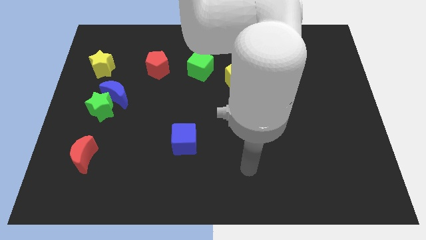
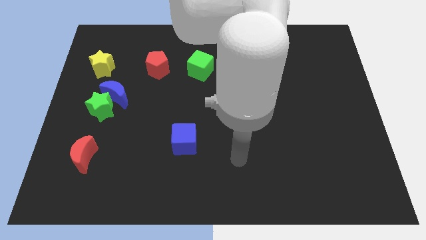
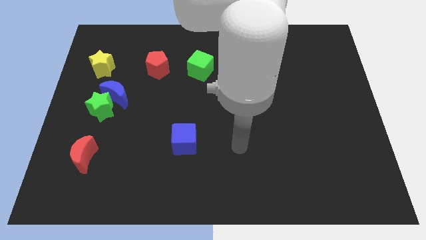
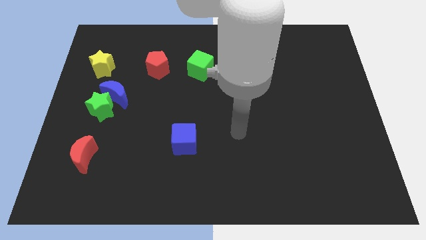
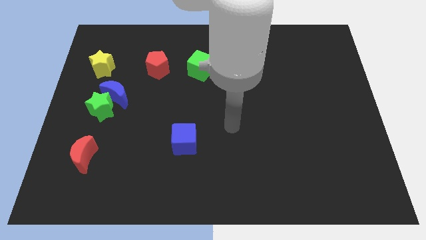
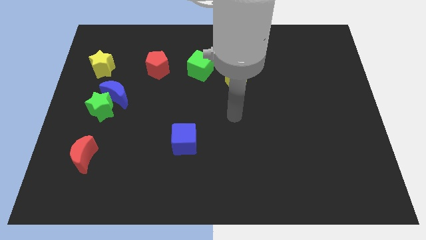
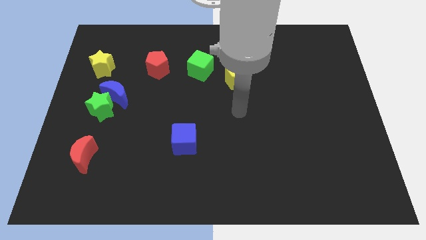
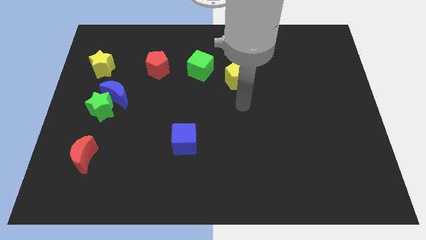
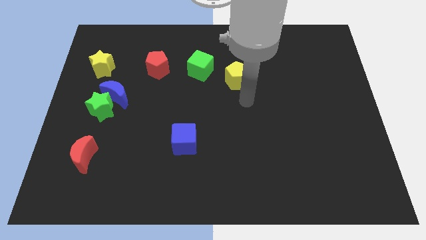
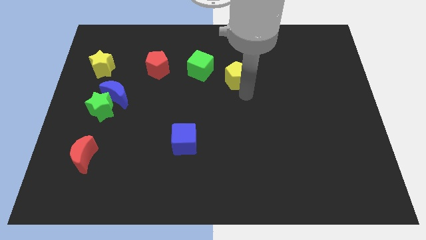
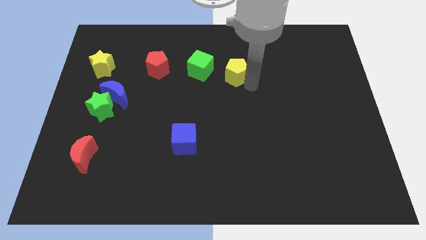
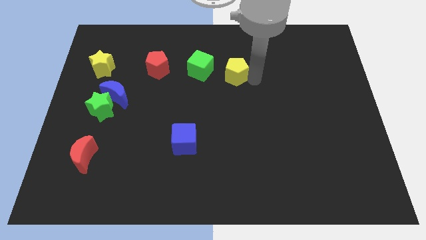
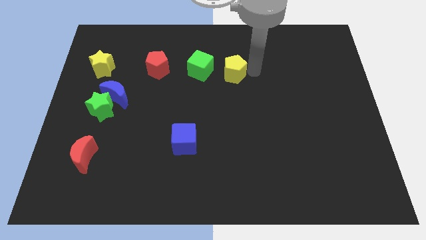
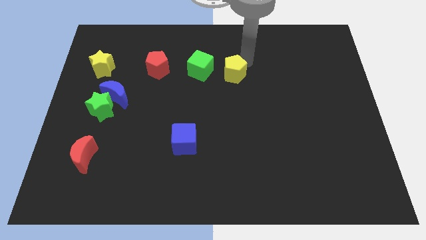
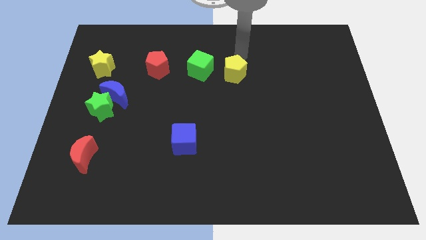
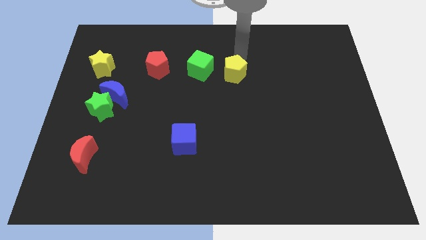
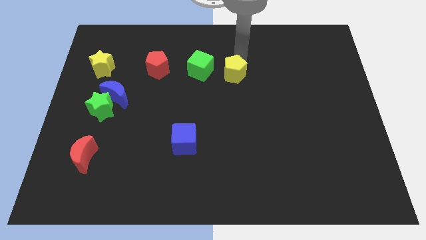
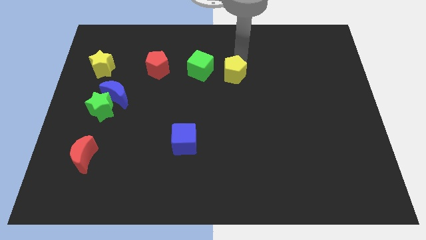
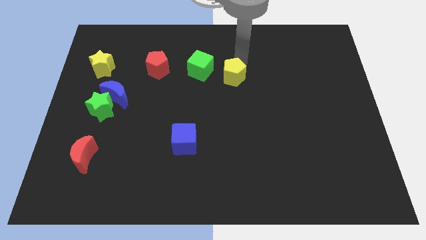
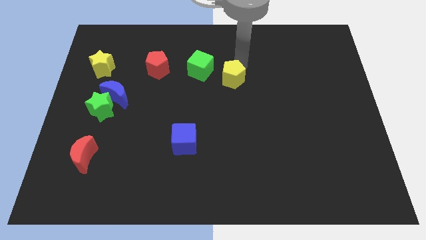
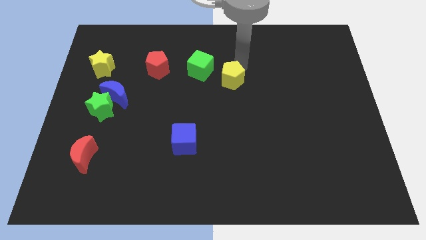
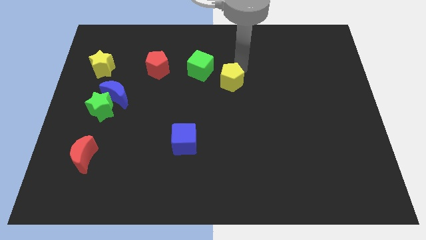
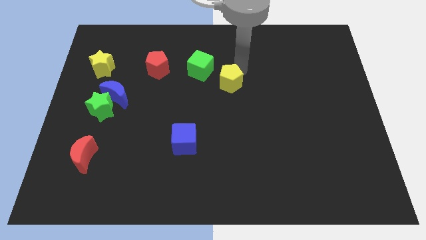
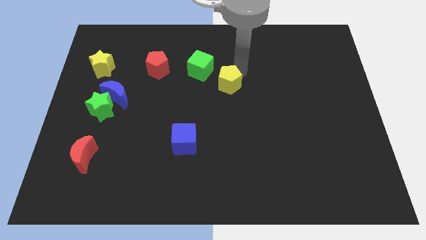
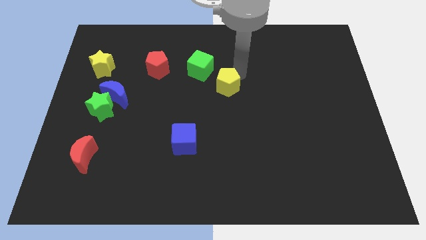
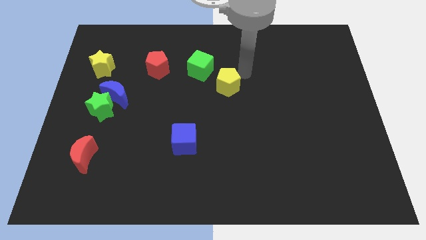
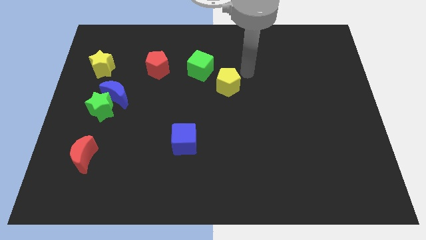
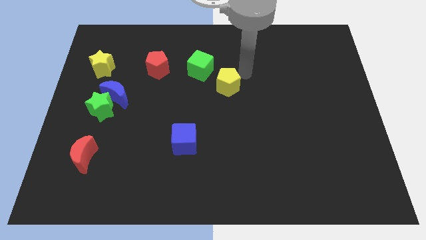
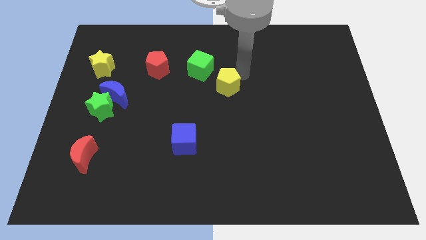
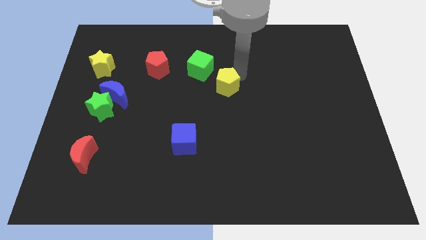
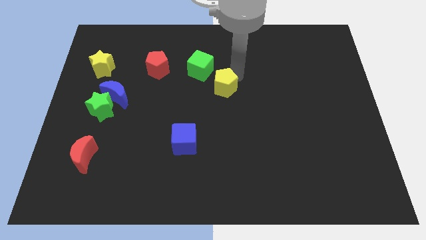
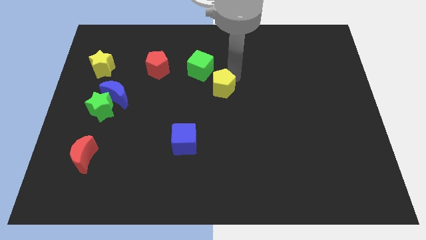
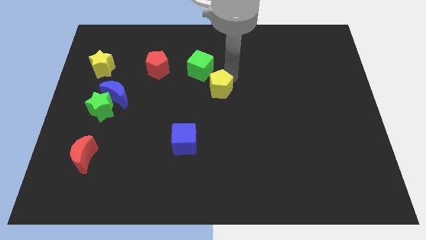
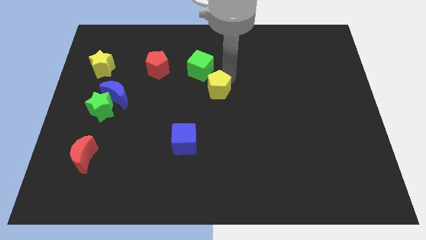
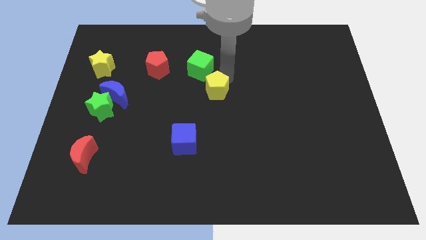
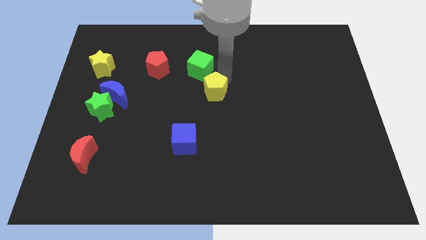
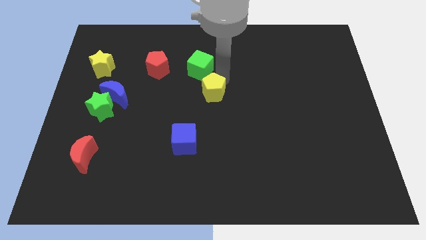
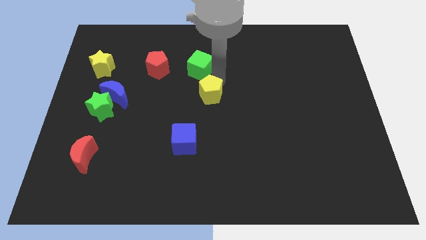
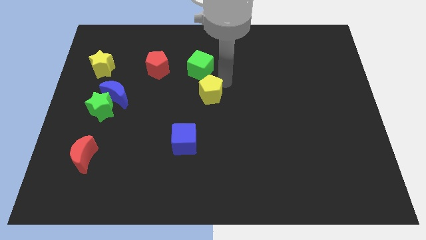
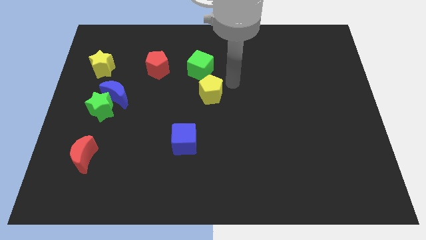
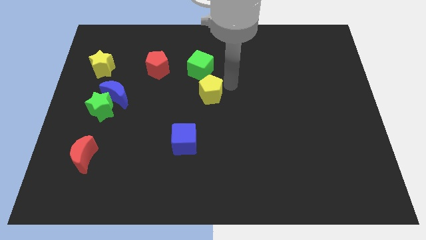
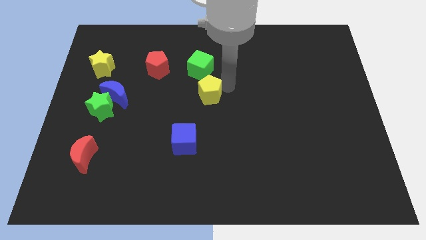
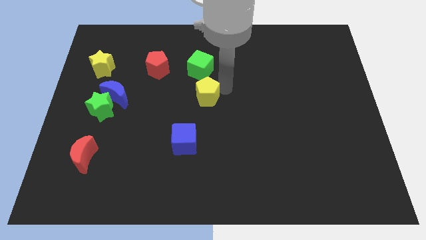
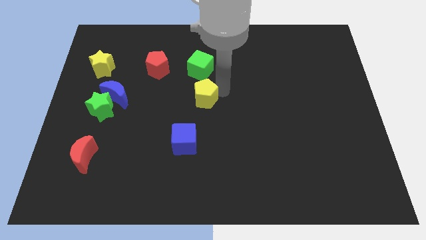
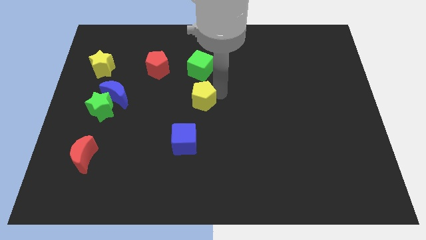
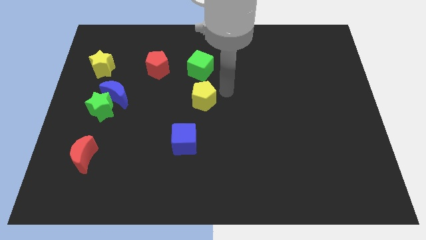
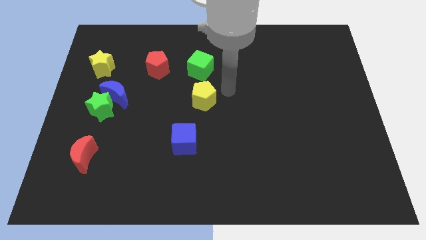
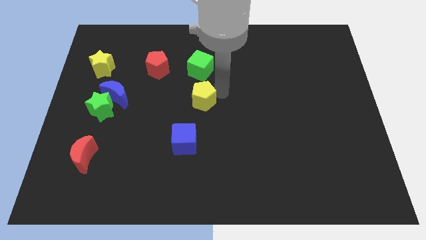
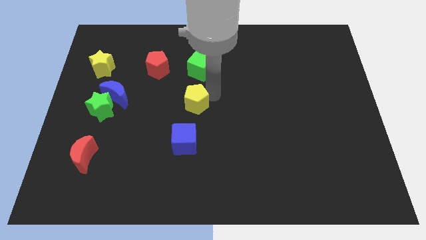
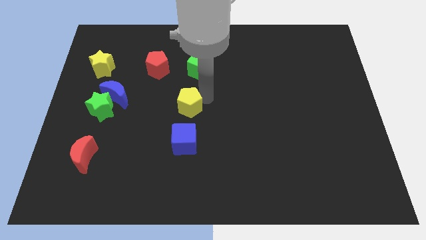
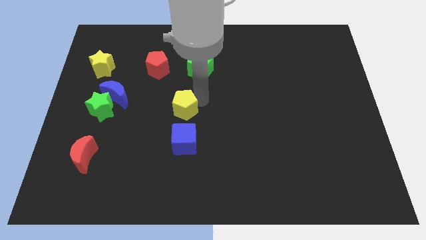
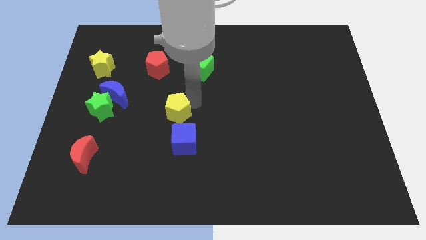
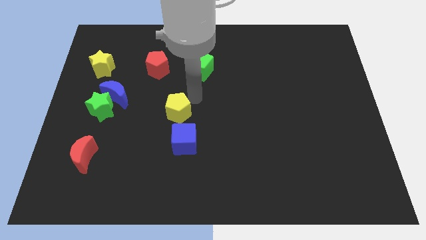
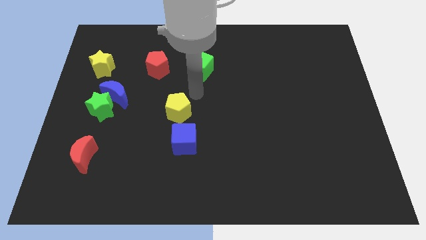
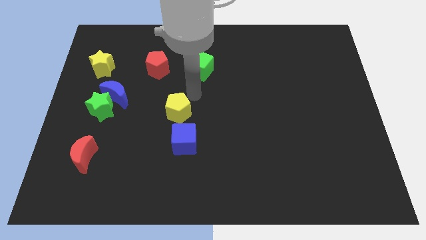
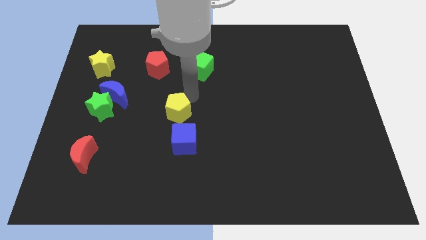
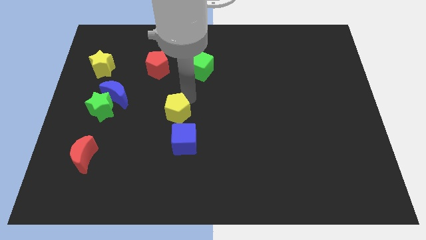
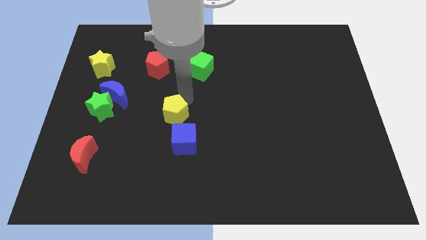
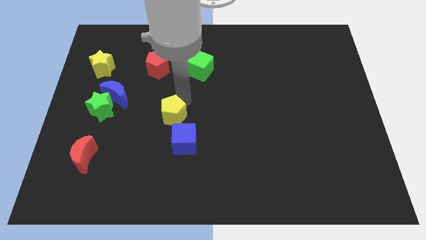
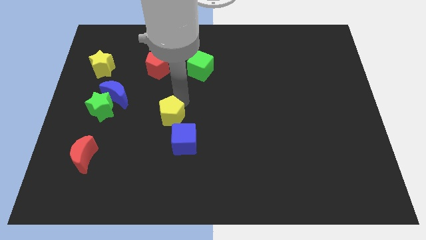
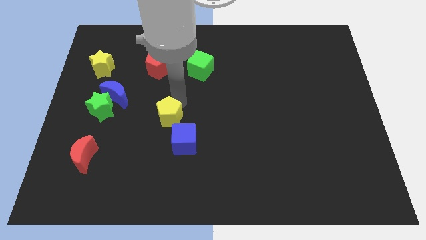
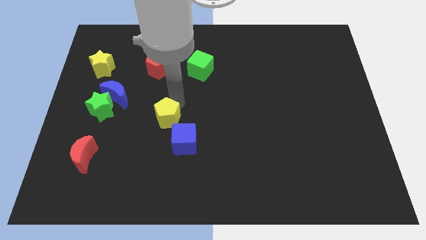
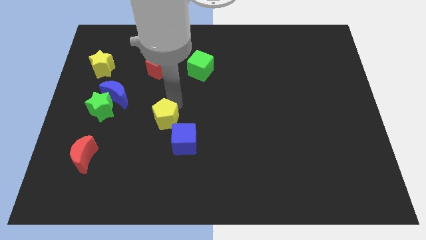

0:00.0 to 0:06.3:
move the yellow pentagon diagonally downwards and to the left

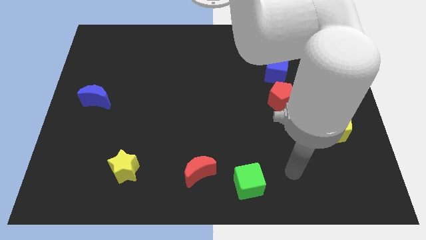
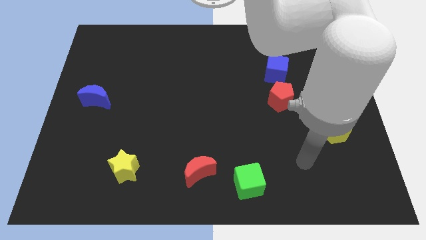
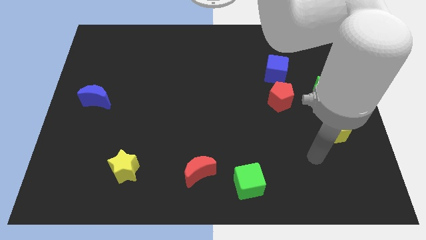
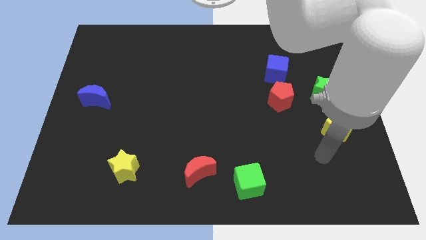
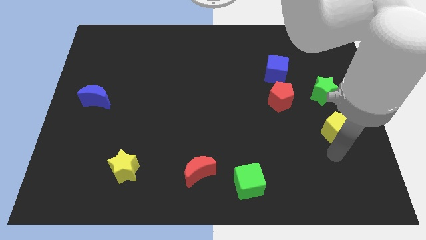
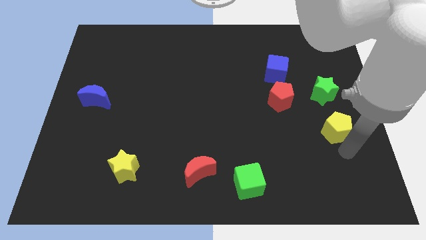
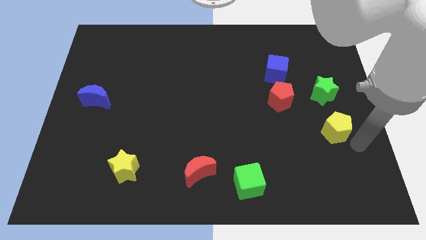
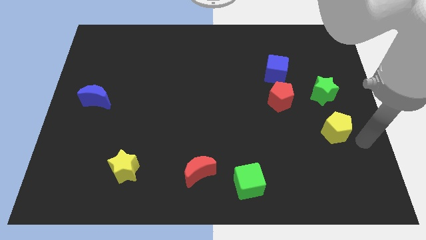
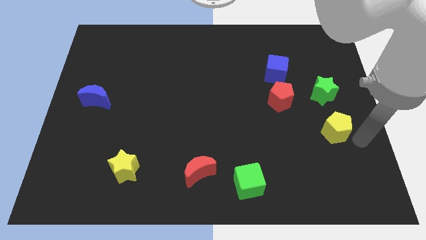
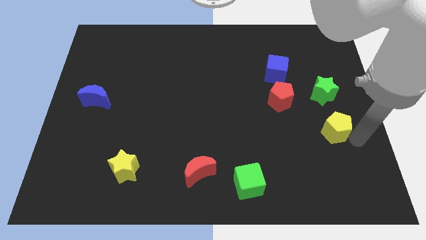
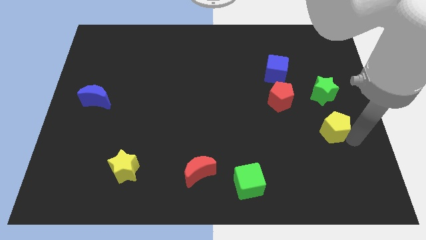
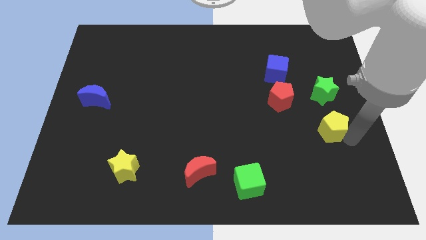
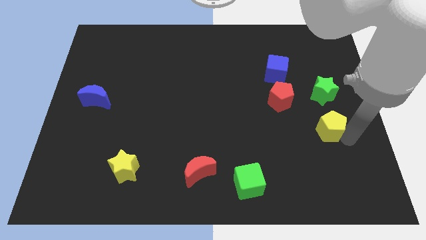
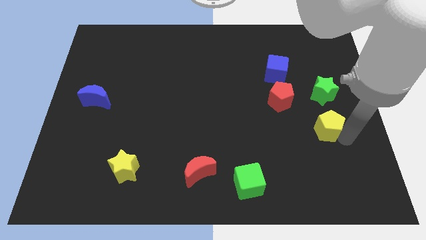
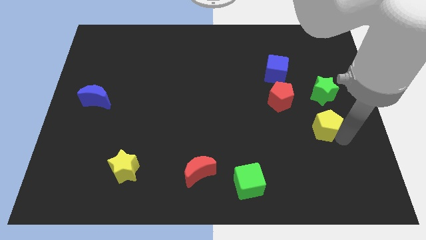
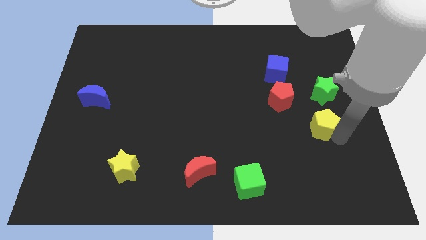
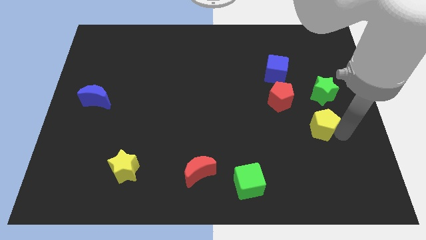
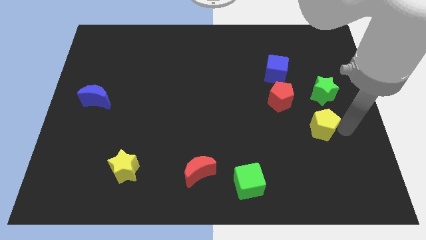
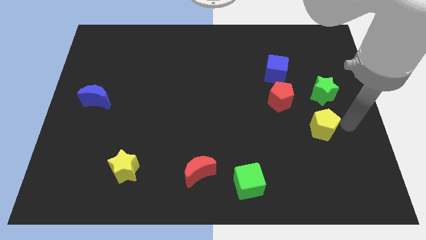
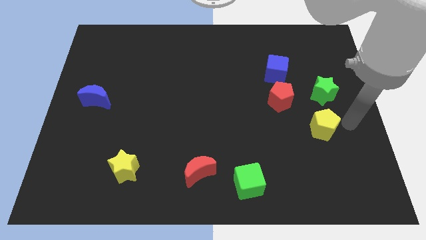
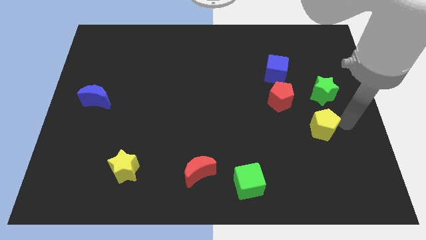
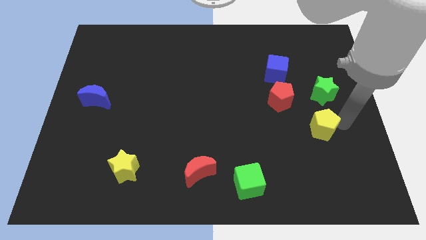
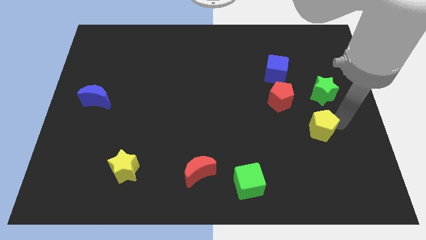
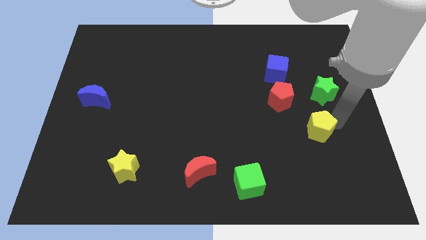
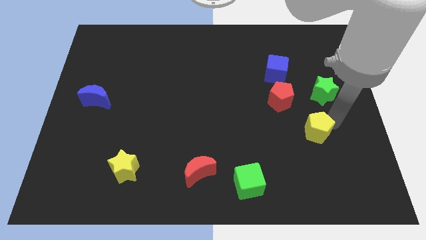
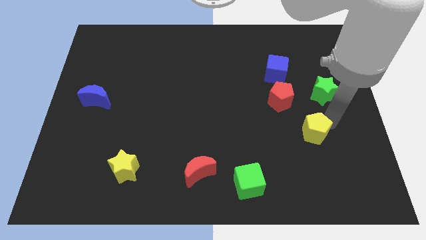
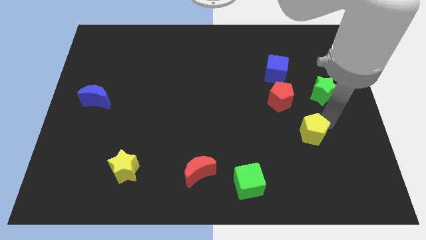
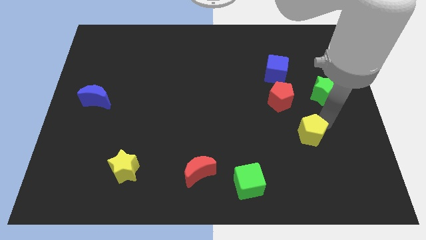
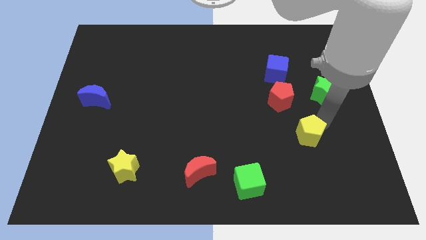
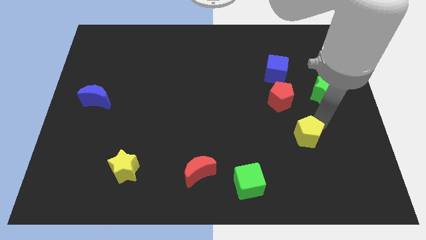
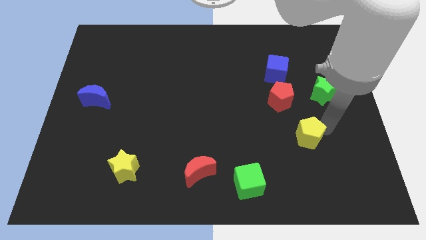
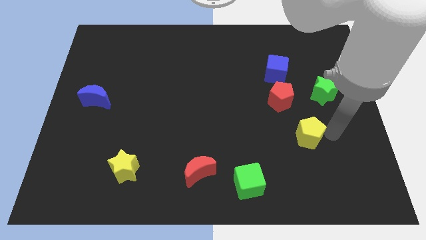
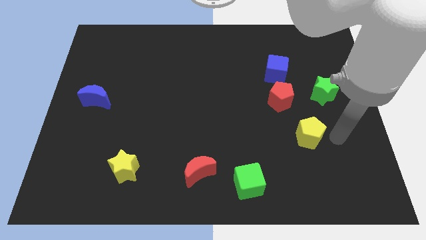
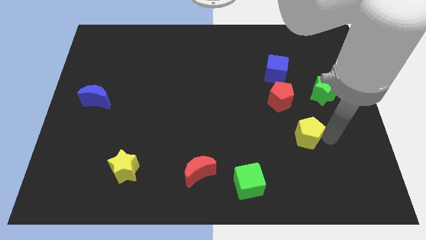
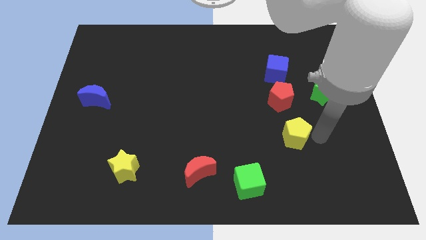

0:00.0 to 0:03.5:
push the yellow pentagon to the left a bit
